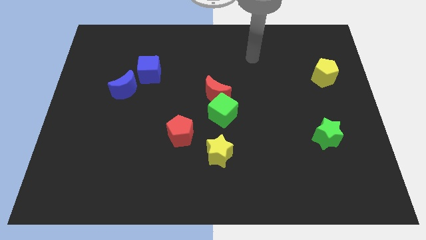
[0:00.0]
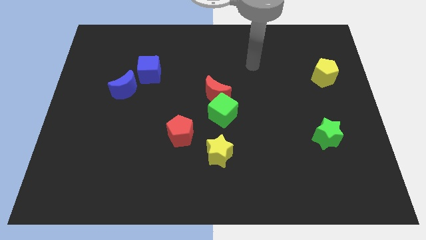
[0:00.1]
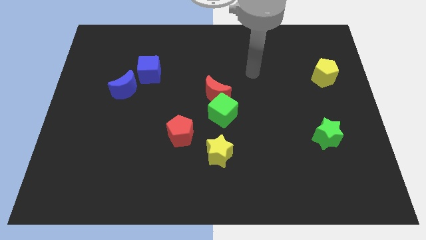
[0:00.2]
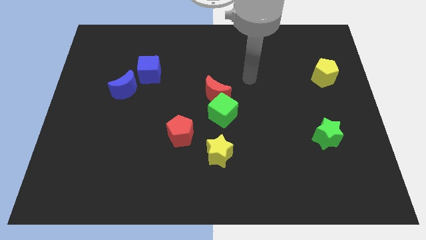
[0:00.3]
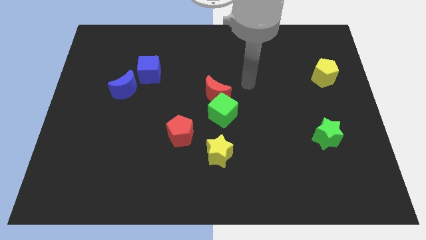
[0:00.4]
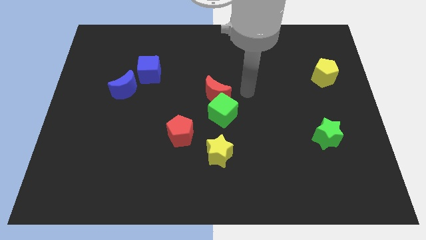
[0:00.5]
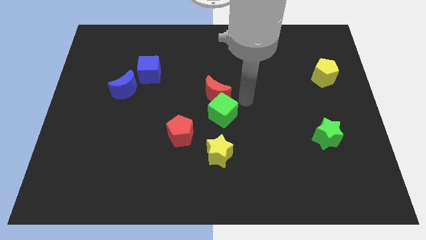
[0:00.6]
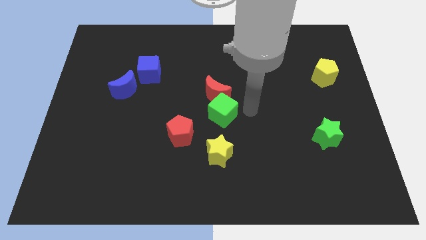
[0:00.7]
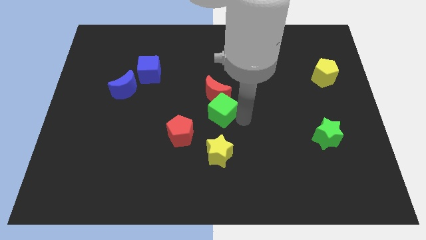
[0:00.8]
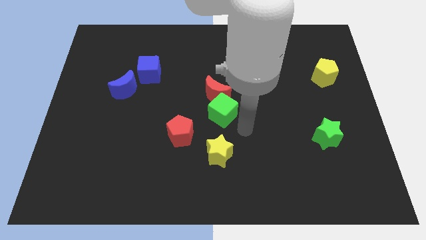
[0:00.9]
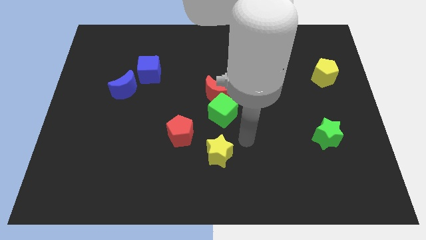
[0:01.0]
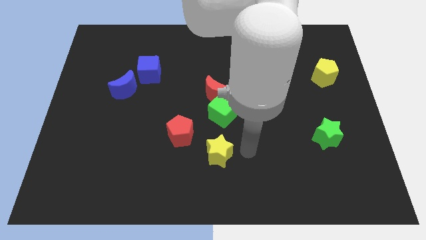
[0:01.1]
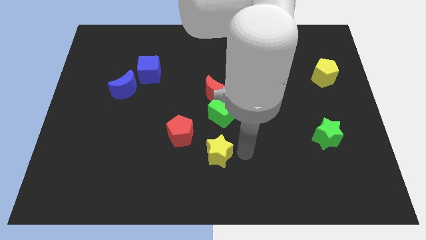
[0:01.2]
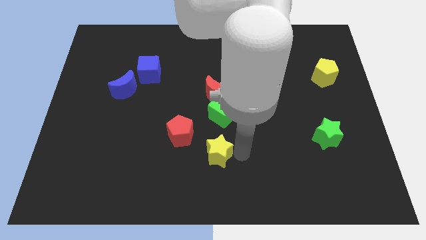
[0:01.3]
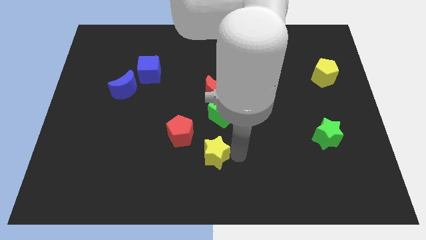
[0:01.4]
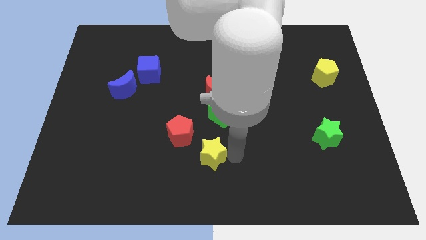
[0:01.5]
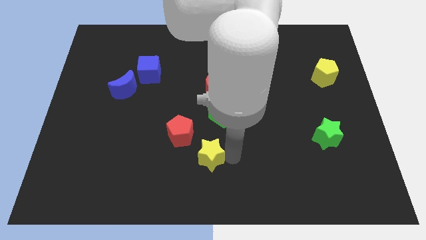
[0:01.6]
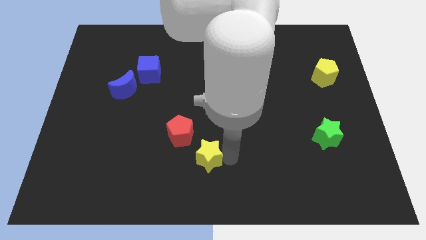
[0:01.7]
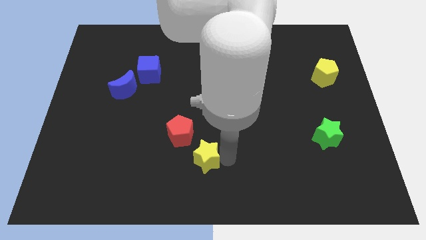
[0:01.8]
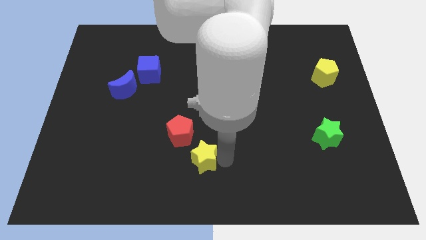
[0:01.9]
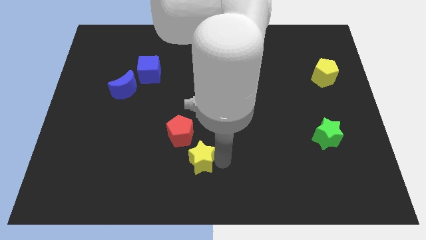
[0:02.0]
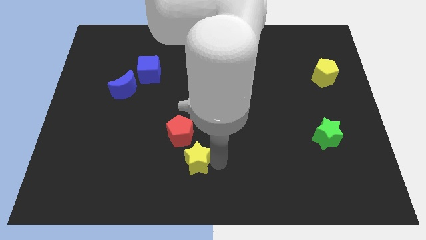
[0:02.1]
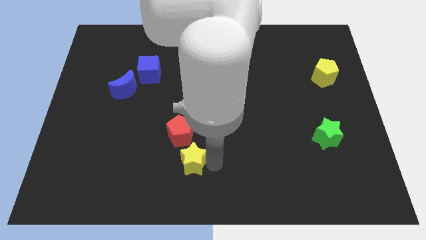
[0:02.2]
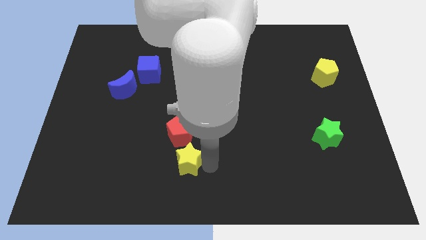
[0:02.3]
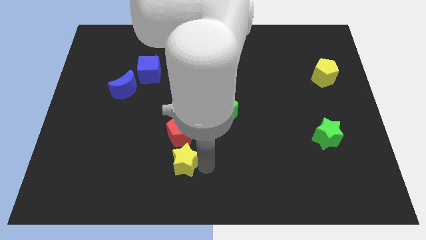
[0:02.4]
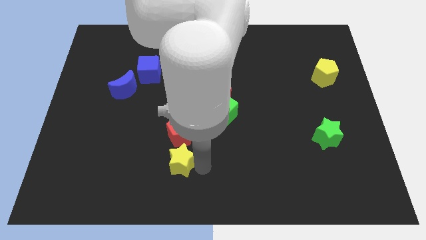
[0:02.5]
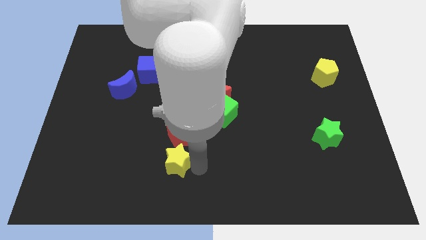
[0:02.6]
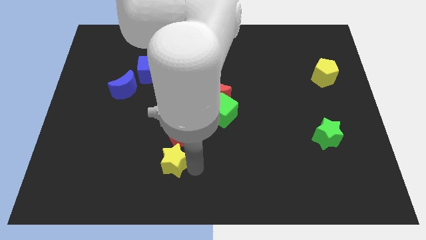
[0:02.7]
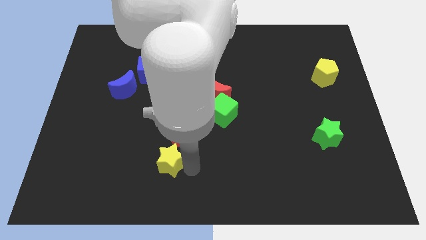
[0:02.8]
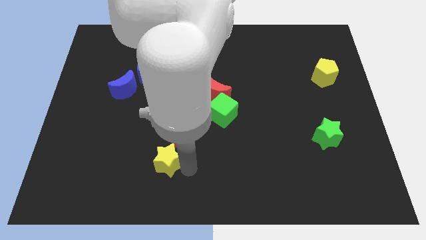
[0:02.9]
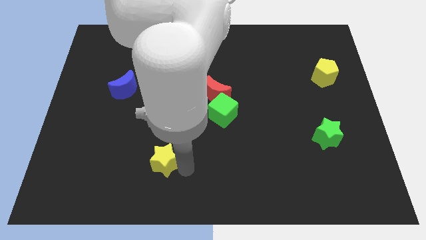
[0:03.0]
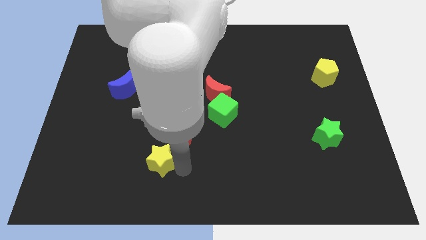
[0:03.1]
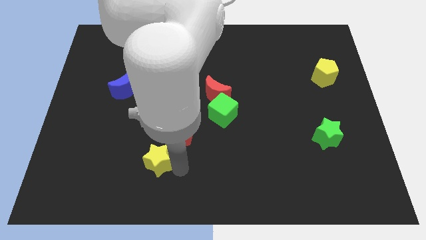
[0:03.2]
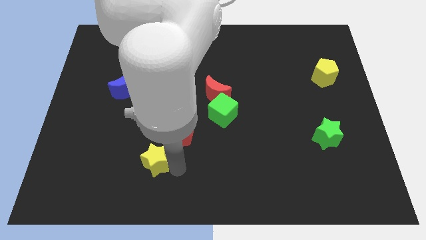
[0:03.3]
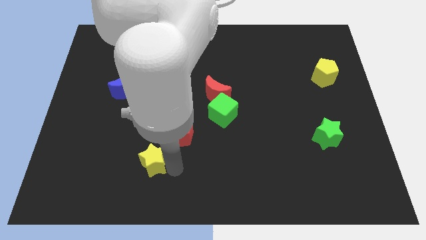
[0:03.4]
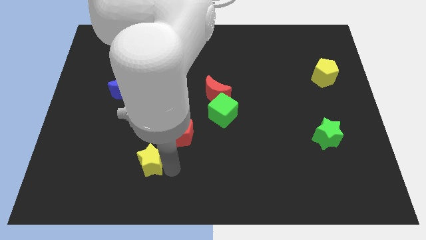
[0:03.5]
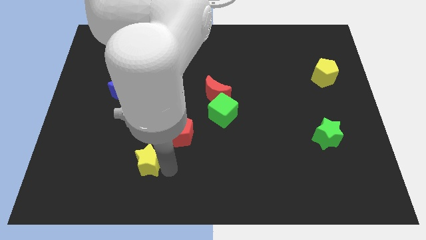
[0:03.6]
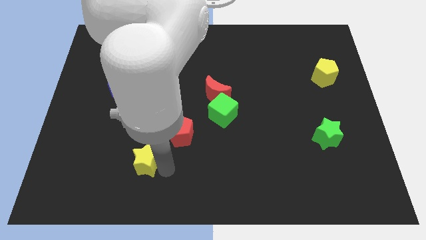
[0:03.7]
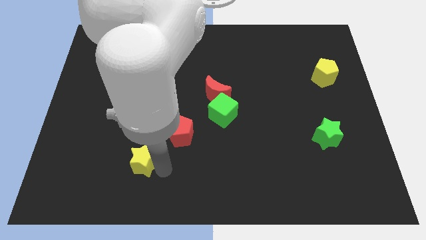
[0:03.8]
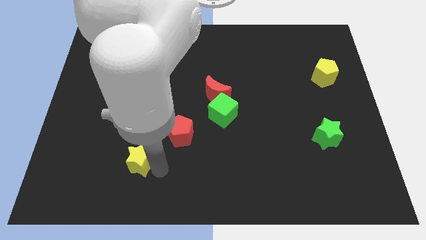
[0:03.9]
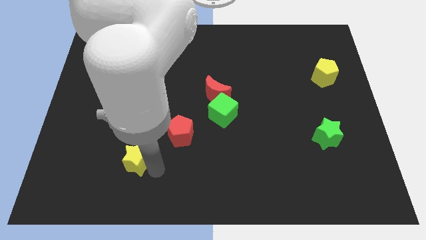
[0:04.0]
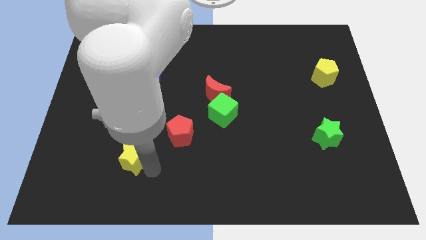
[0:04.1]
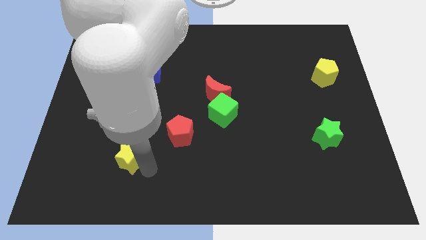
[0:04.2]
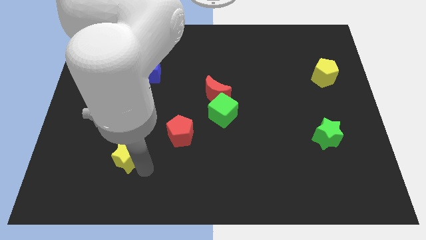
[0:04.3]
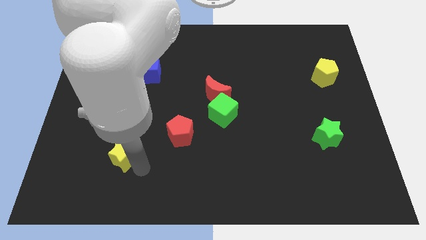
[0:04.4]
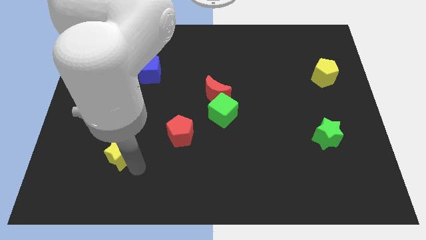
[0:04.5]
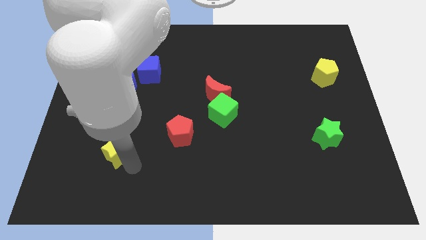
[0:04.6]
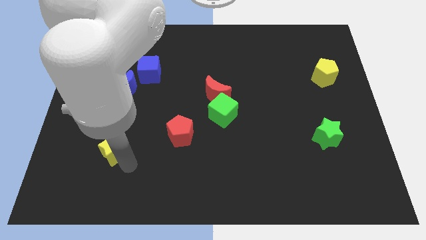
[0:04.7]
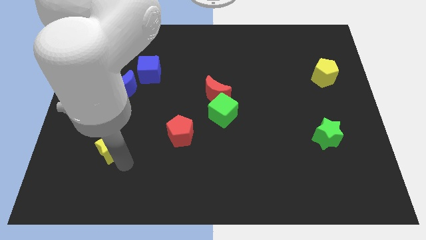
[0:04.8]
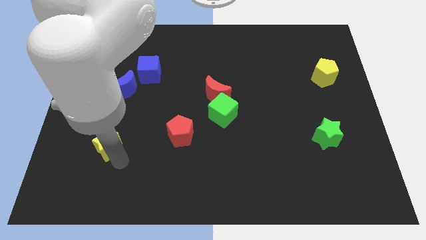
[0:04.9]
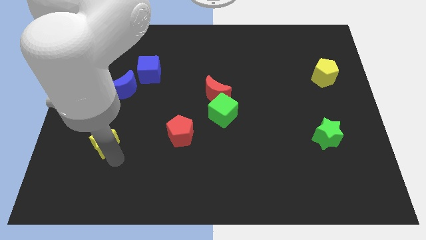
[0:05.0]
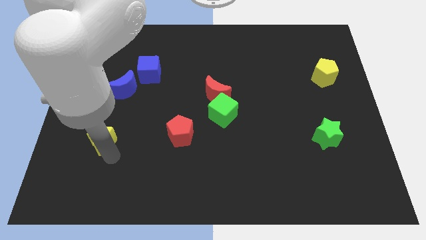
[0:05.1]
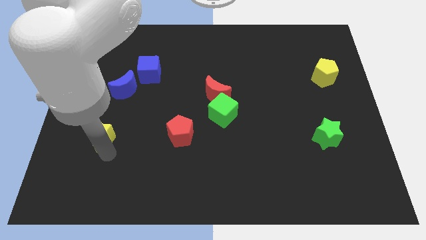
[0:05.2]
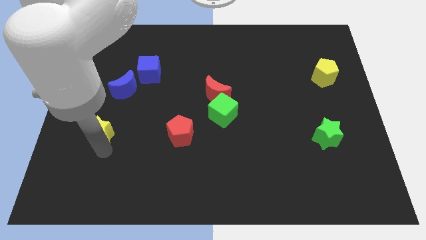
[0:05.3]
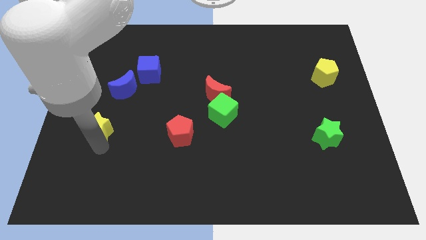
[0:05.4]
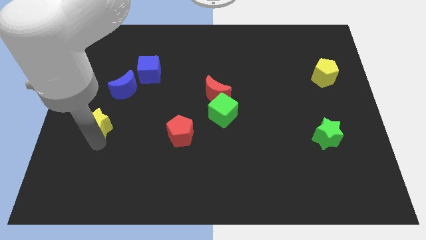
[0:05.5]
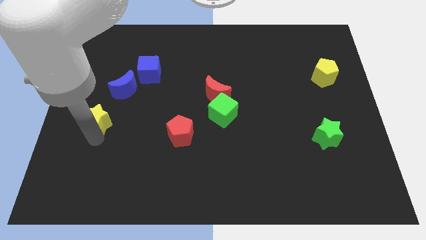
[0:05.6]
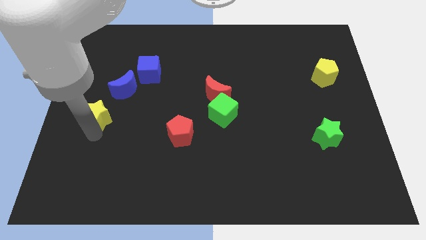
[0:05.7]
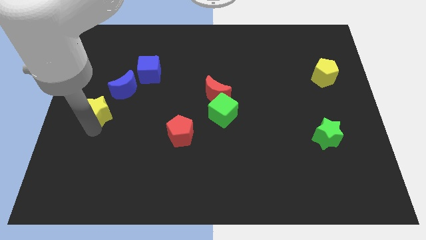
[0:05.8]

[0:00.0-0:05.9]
move the yellow star upwards and to the left diagonally

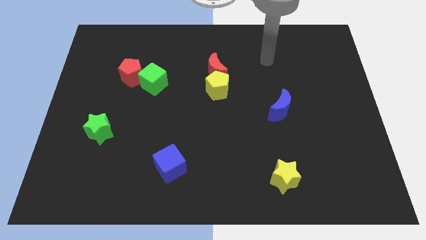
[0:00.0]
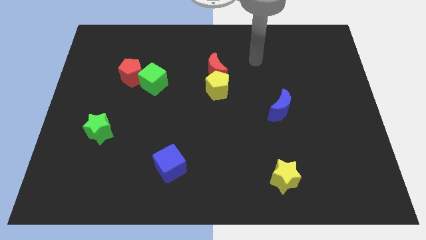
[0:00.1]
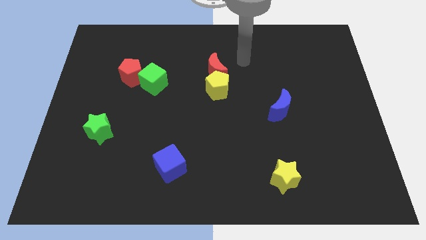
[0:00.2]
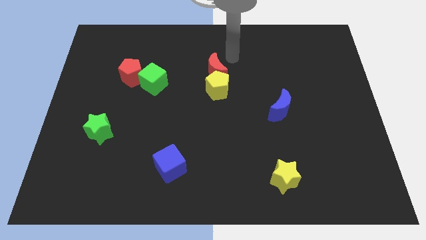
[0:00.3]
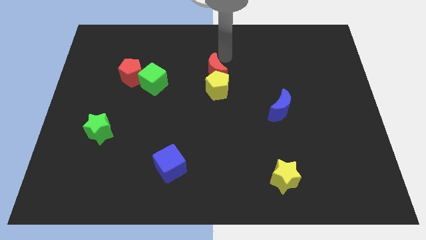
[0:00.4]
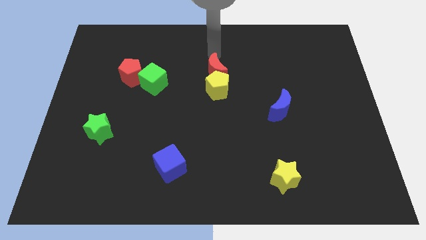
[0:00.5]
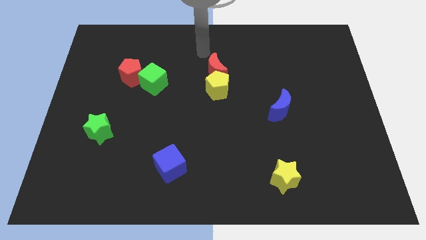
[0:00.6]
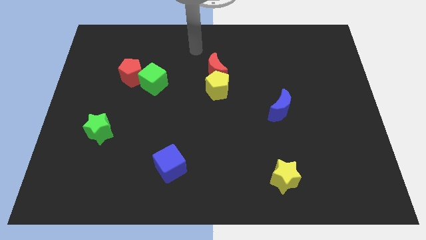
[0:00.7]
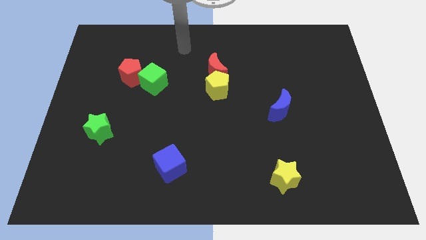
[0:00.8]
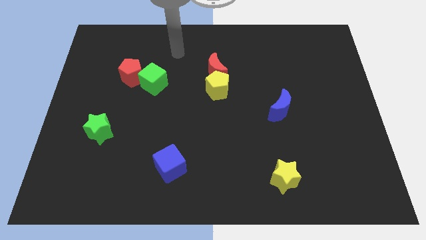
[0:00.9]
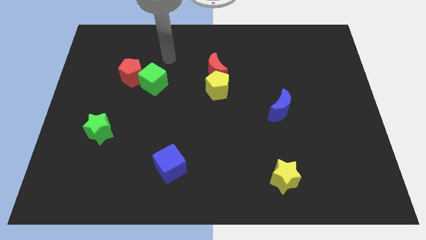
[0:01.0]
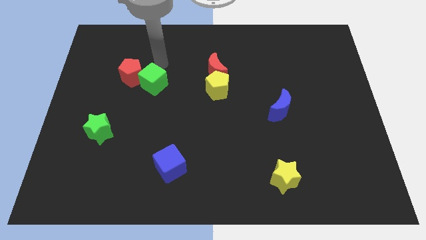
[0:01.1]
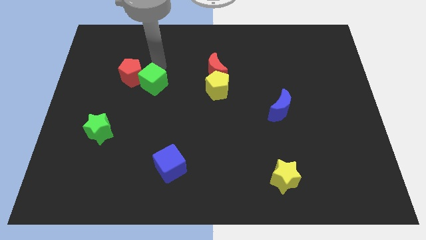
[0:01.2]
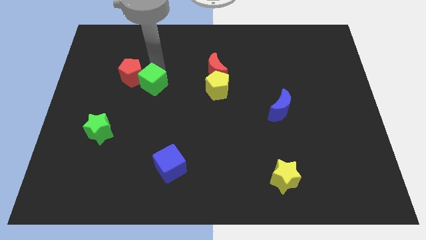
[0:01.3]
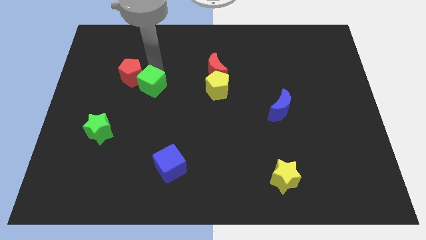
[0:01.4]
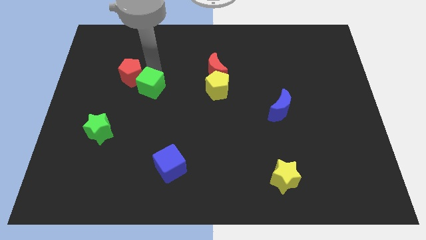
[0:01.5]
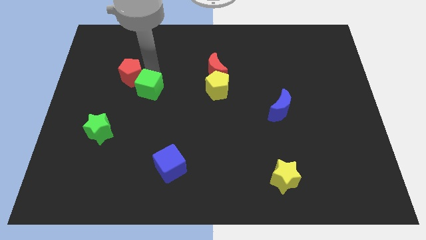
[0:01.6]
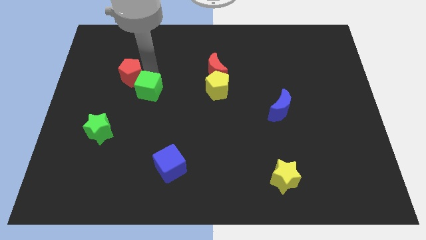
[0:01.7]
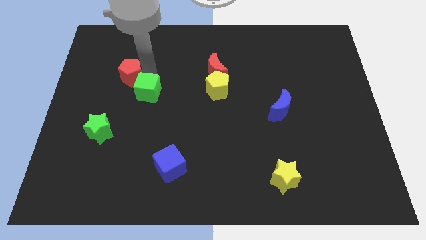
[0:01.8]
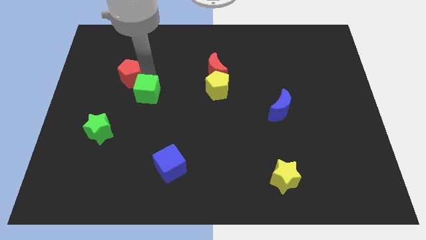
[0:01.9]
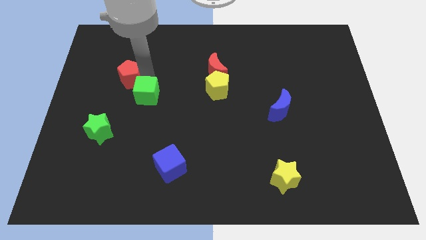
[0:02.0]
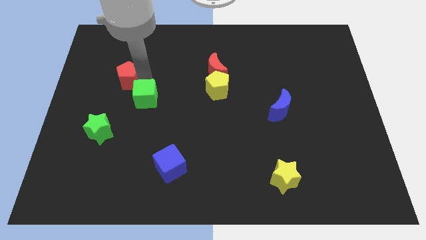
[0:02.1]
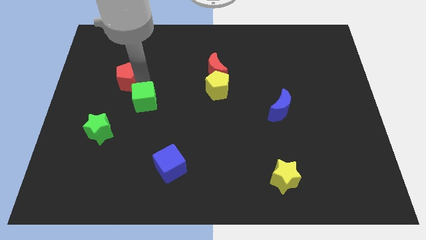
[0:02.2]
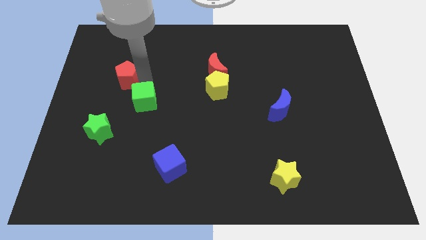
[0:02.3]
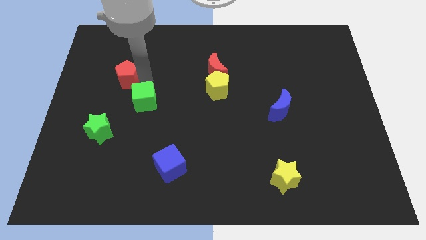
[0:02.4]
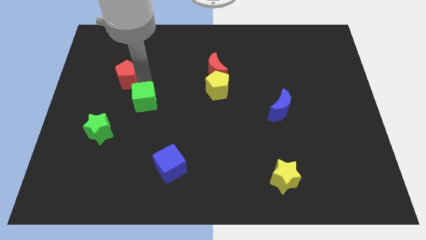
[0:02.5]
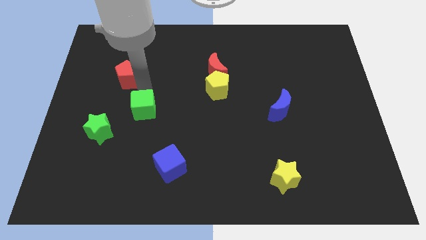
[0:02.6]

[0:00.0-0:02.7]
move the green cube downwards a little

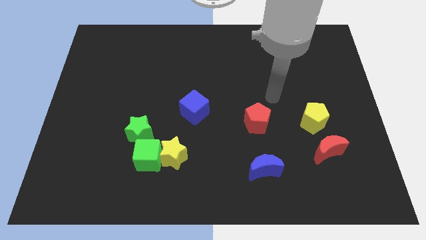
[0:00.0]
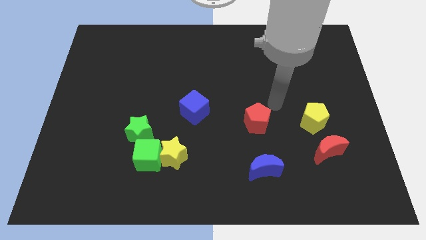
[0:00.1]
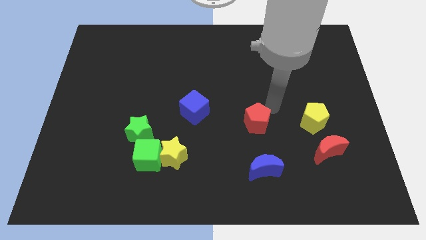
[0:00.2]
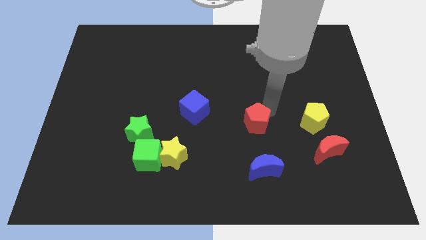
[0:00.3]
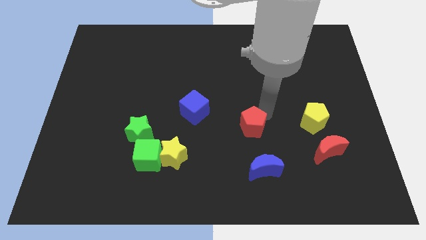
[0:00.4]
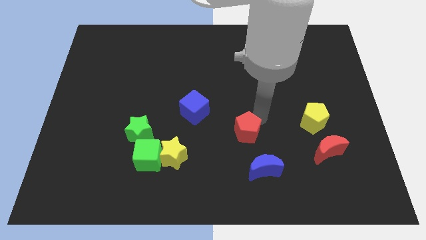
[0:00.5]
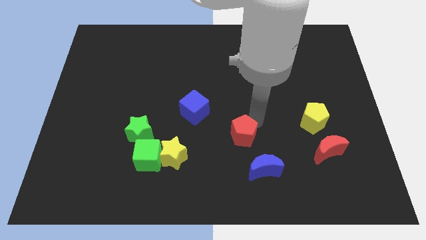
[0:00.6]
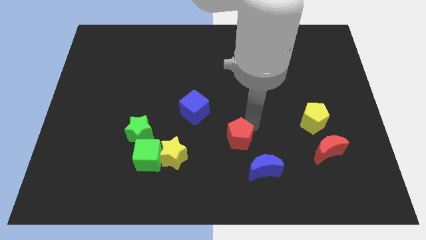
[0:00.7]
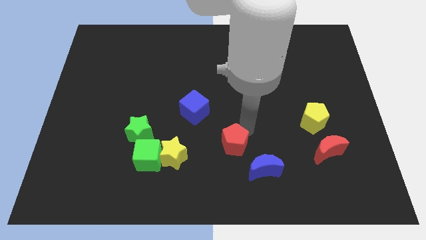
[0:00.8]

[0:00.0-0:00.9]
slide the red pentagon down and then to the left a little bit
